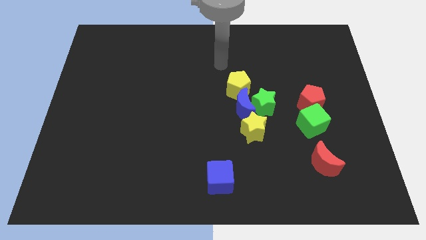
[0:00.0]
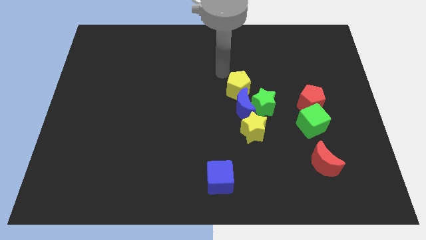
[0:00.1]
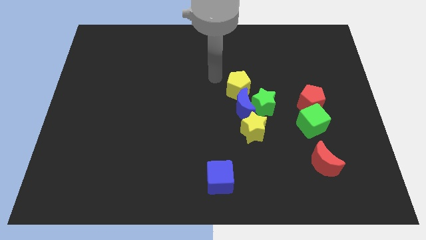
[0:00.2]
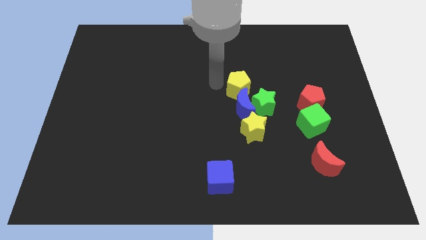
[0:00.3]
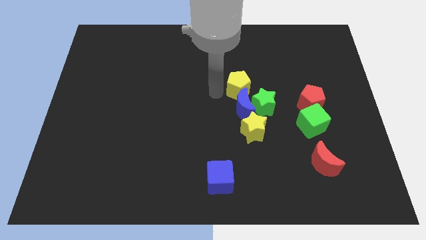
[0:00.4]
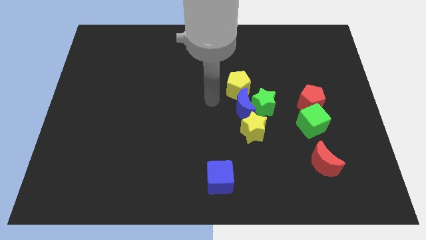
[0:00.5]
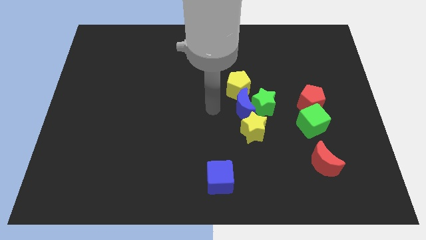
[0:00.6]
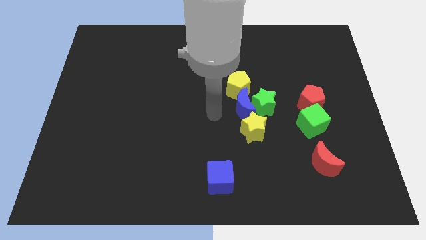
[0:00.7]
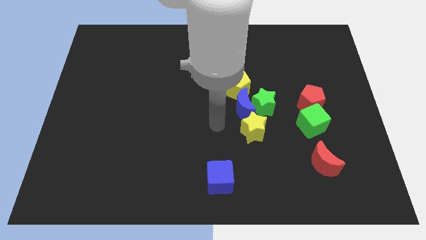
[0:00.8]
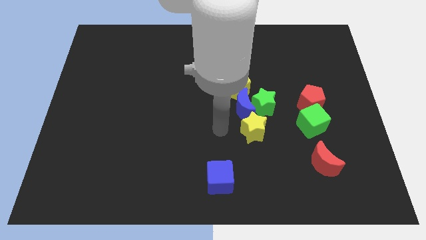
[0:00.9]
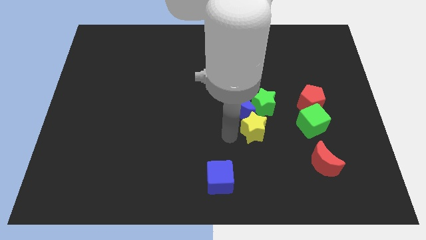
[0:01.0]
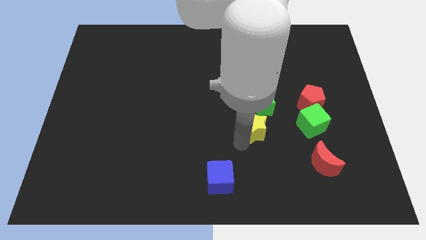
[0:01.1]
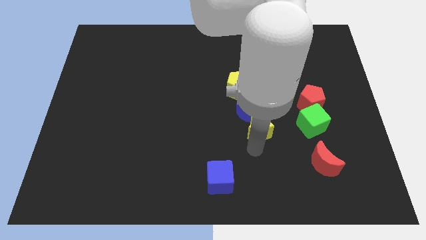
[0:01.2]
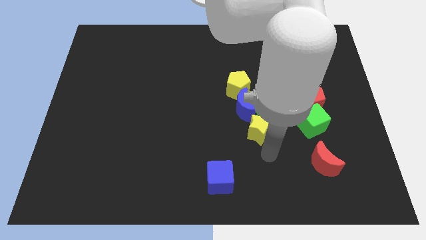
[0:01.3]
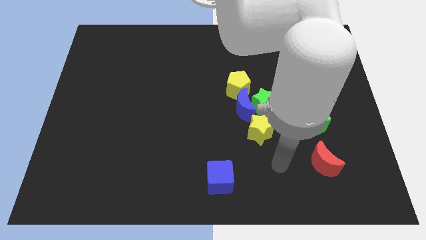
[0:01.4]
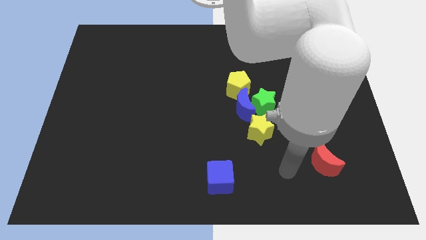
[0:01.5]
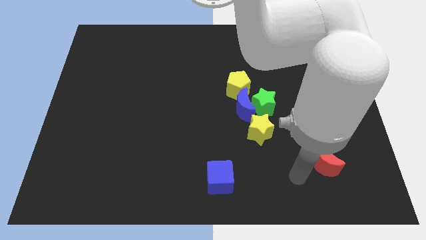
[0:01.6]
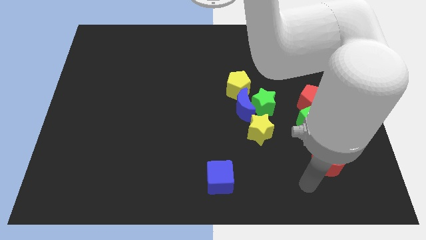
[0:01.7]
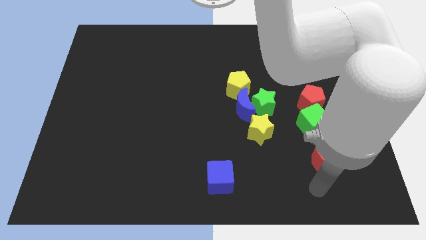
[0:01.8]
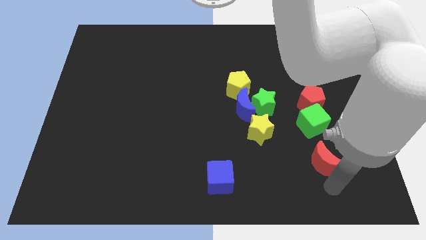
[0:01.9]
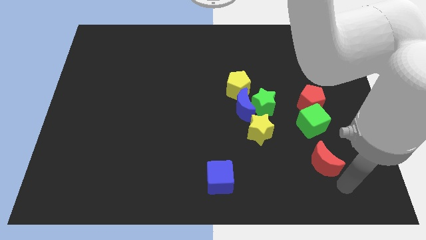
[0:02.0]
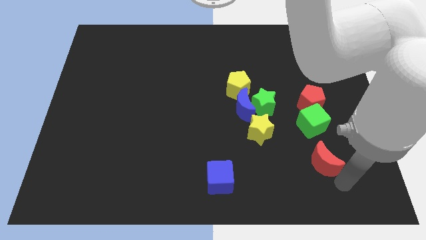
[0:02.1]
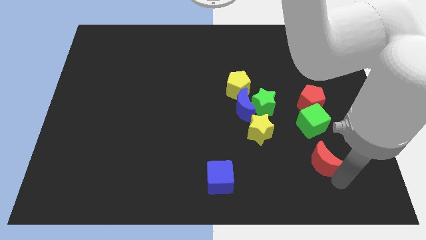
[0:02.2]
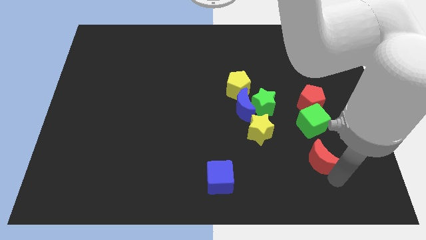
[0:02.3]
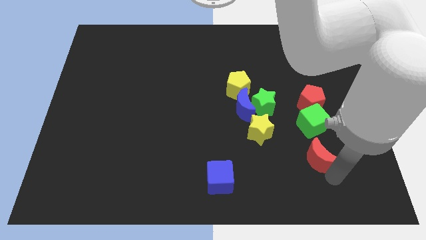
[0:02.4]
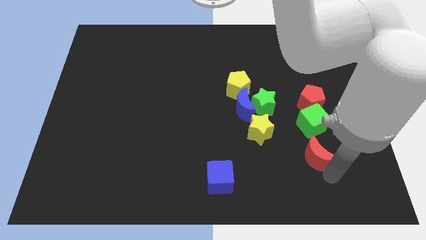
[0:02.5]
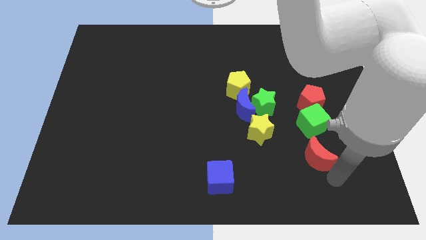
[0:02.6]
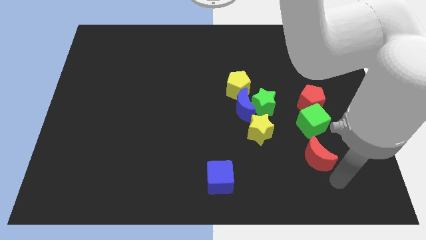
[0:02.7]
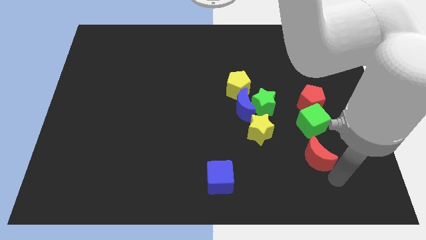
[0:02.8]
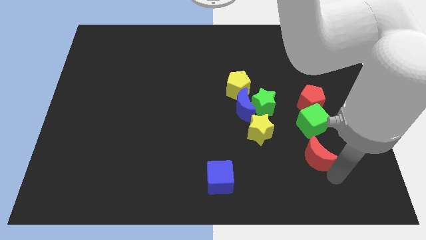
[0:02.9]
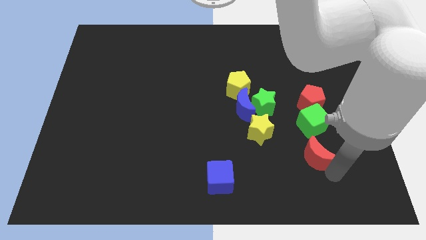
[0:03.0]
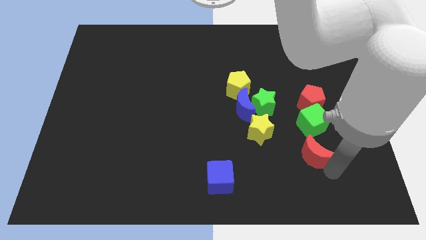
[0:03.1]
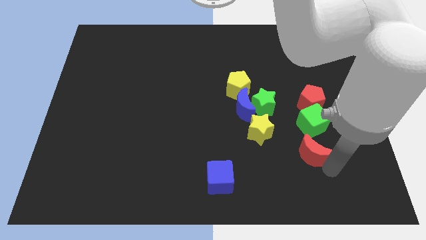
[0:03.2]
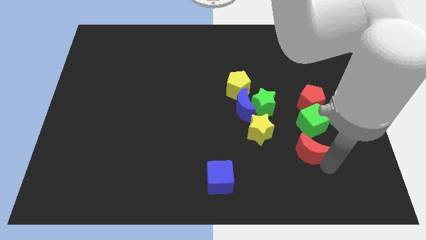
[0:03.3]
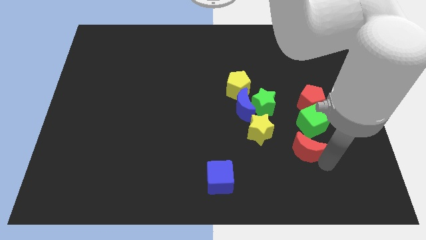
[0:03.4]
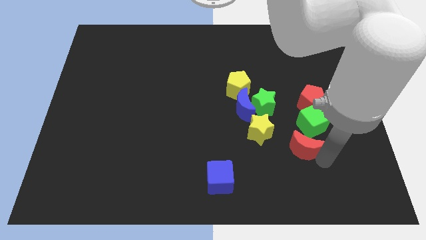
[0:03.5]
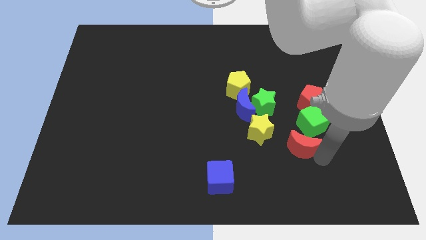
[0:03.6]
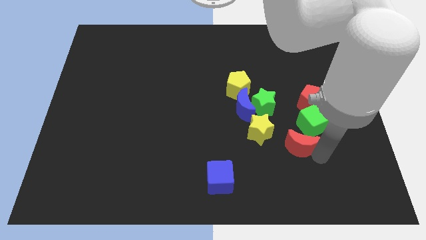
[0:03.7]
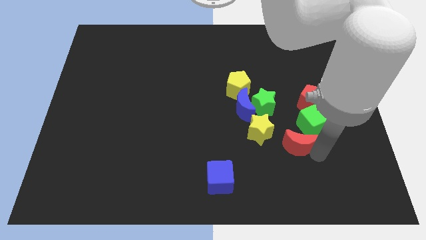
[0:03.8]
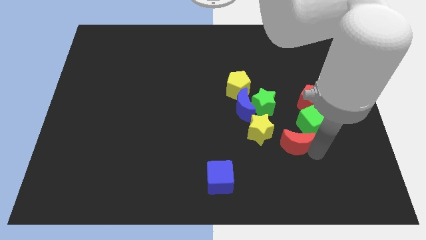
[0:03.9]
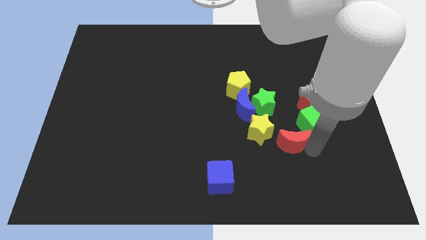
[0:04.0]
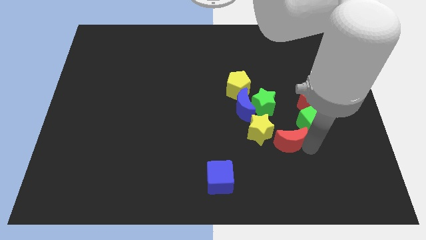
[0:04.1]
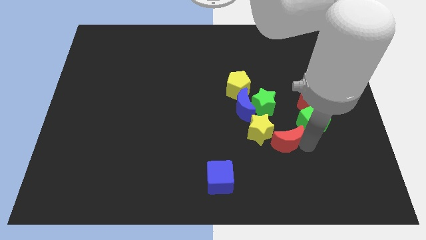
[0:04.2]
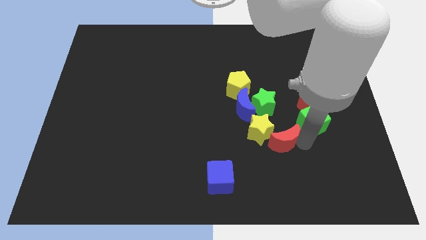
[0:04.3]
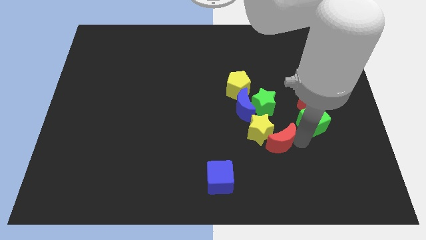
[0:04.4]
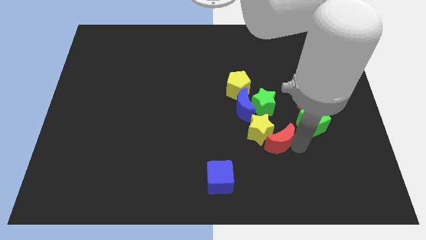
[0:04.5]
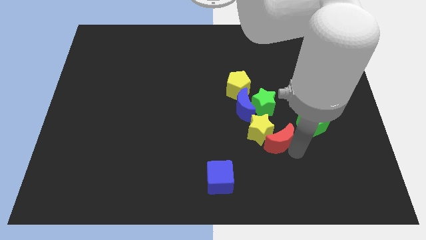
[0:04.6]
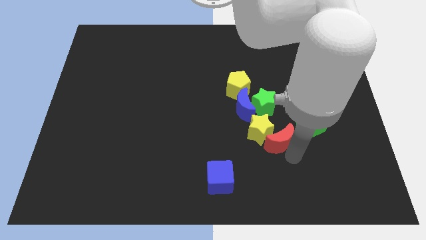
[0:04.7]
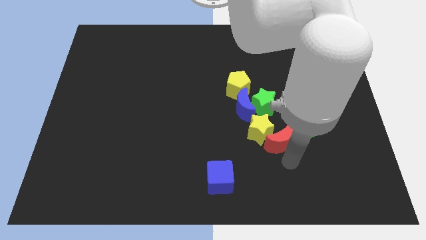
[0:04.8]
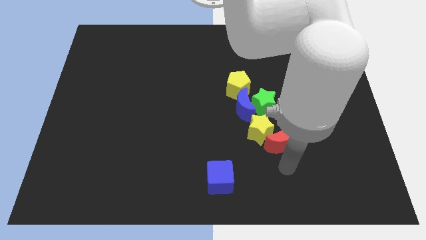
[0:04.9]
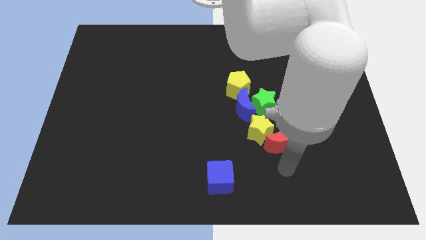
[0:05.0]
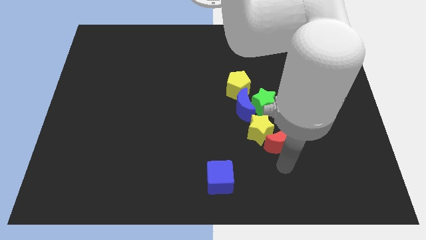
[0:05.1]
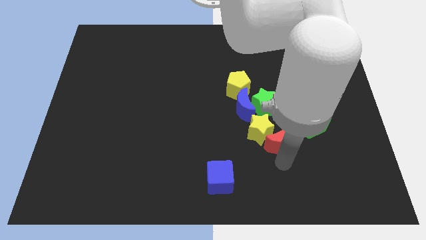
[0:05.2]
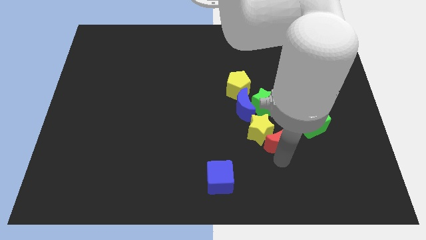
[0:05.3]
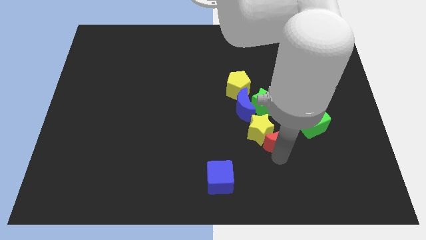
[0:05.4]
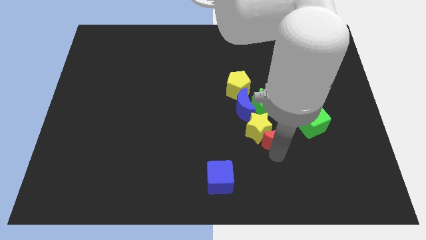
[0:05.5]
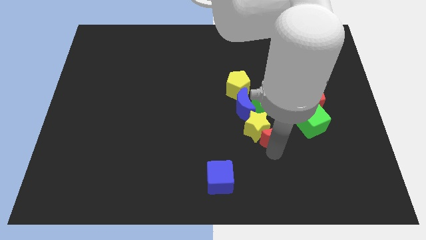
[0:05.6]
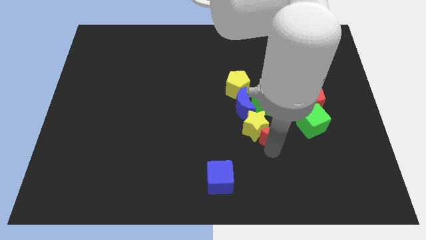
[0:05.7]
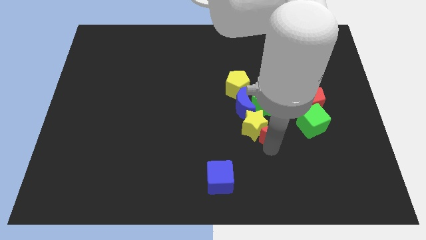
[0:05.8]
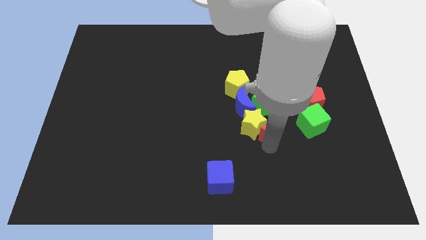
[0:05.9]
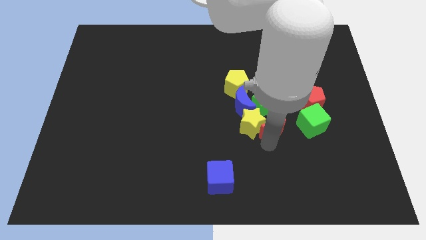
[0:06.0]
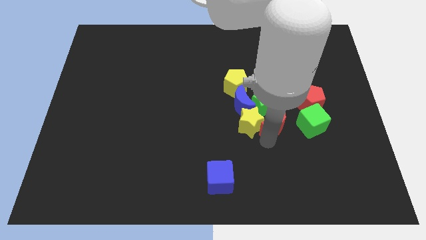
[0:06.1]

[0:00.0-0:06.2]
slide the red moon next to the green star

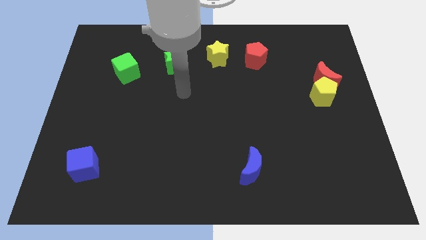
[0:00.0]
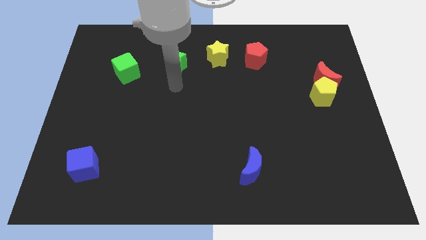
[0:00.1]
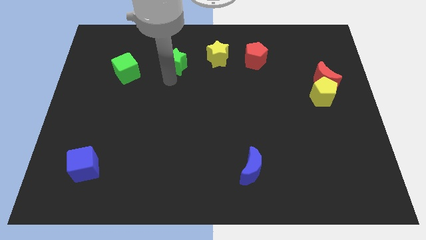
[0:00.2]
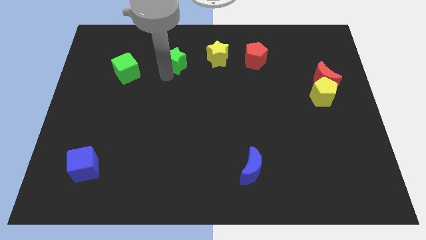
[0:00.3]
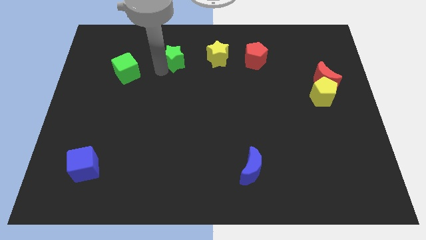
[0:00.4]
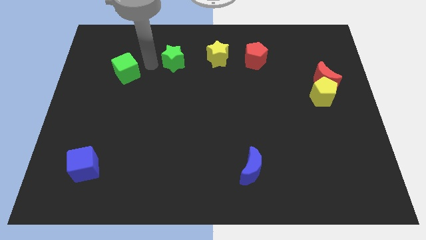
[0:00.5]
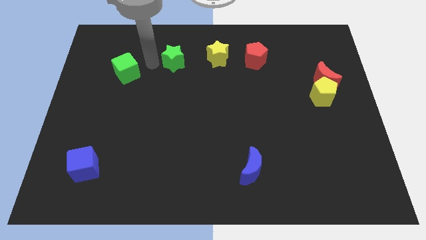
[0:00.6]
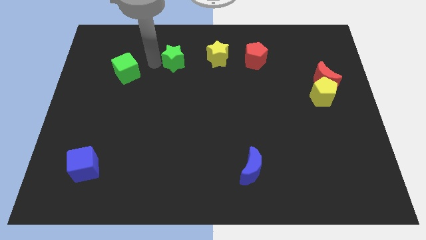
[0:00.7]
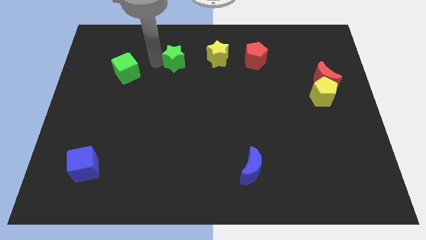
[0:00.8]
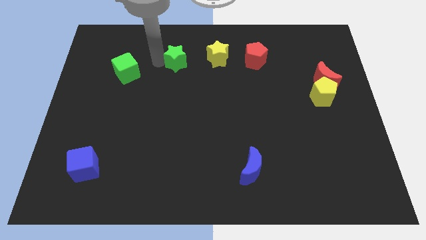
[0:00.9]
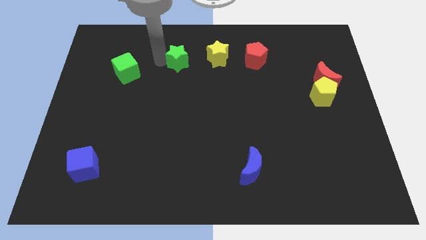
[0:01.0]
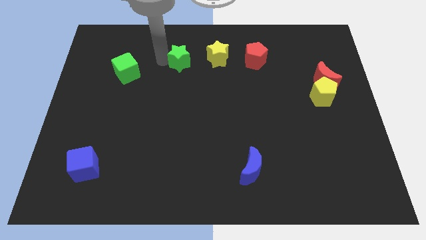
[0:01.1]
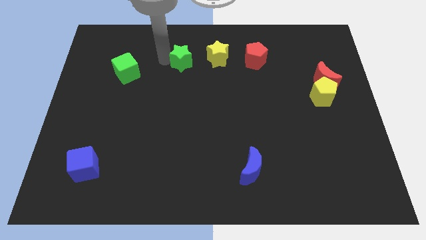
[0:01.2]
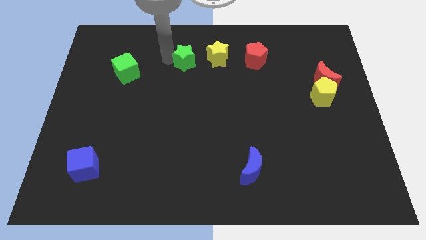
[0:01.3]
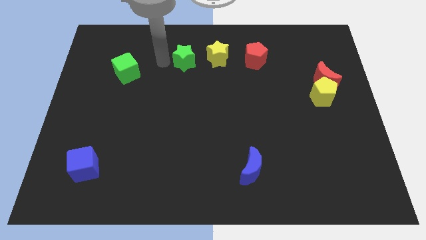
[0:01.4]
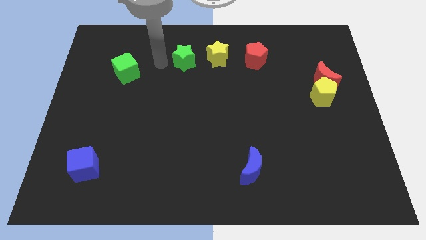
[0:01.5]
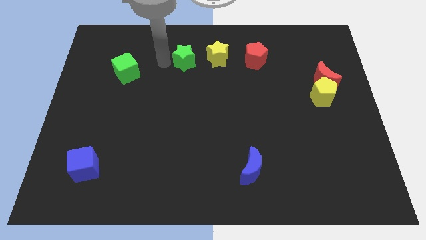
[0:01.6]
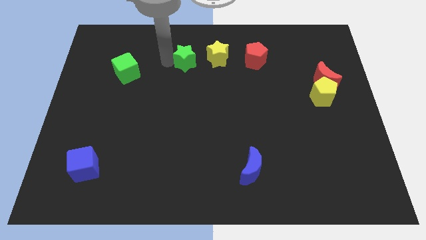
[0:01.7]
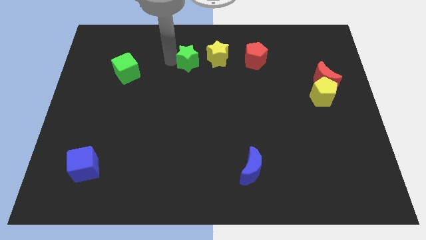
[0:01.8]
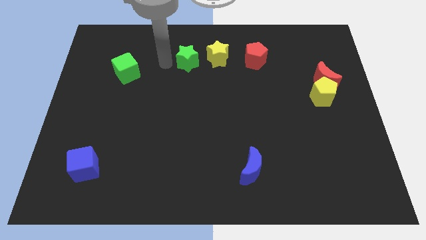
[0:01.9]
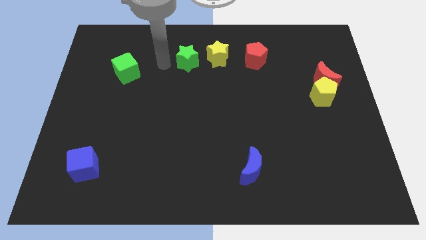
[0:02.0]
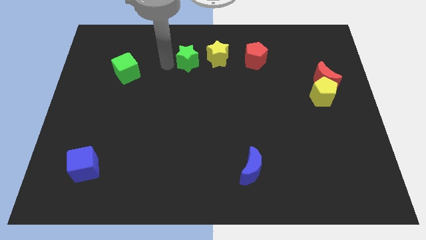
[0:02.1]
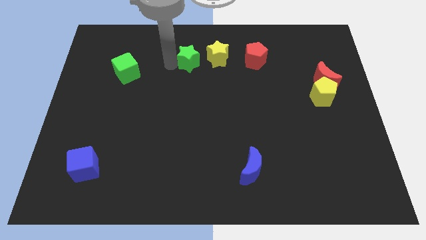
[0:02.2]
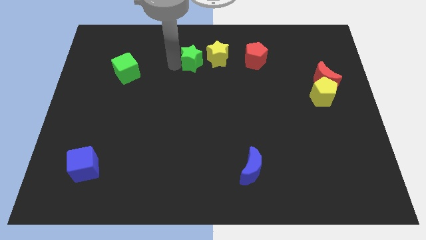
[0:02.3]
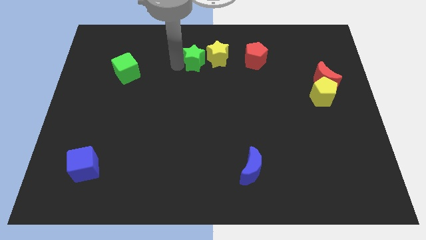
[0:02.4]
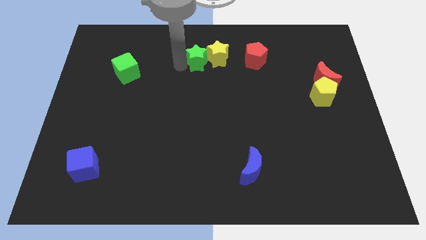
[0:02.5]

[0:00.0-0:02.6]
push the green star next to the yellow star
